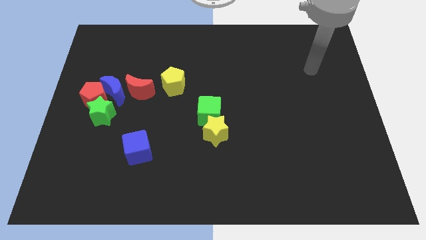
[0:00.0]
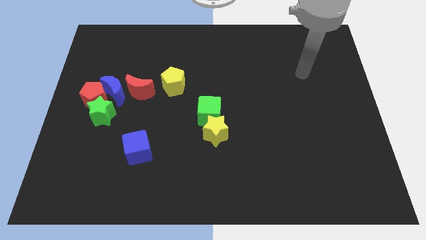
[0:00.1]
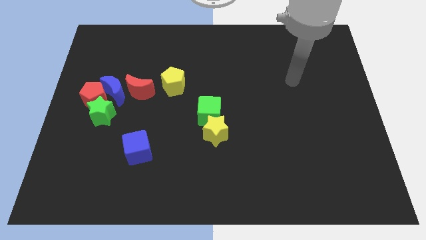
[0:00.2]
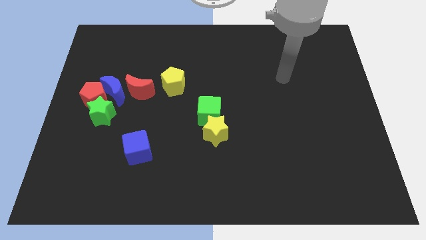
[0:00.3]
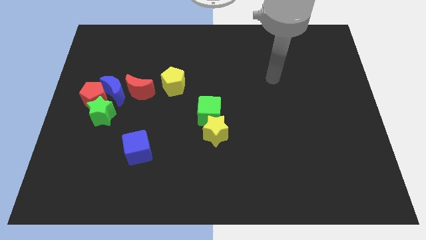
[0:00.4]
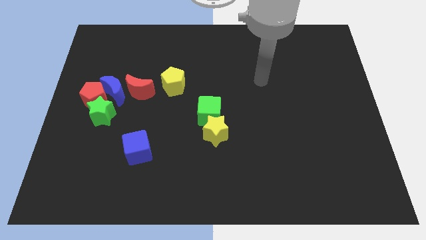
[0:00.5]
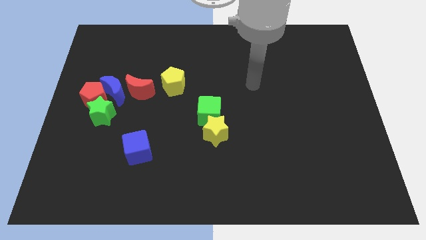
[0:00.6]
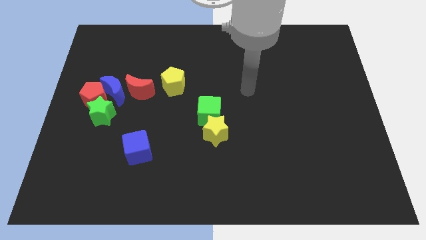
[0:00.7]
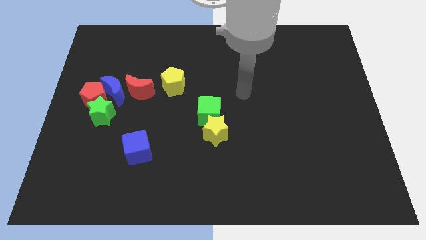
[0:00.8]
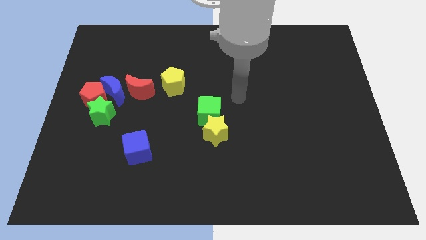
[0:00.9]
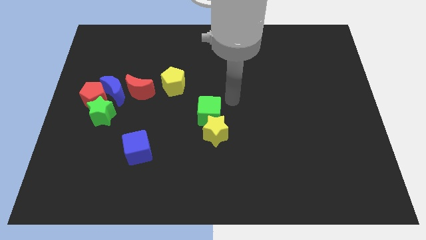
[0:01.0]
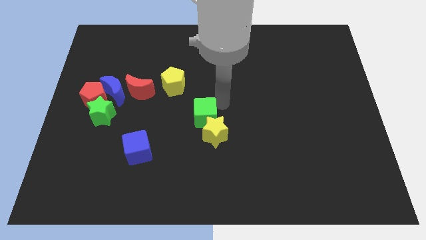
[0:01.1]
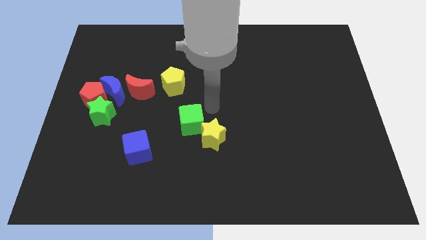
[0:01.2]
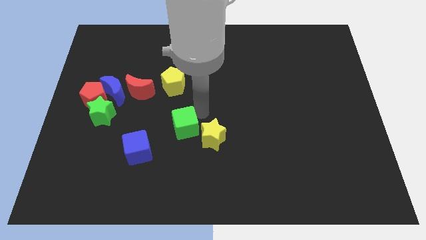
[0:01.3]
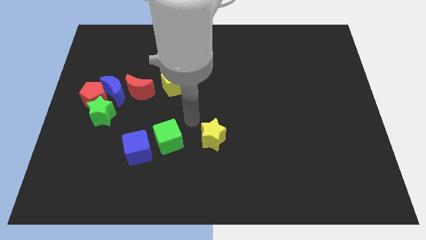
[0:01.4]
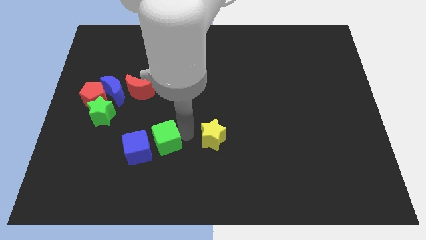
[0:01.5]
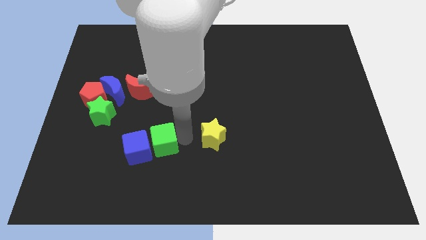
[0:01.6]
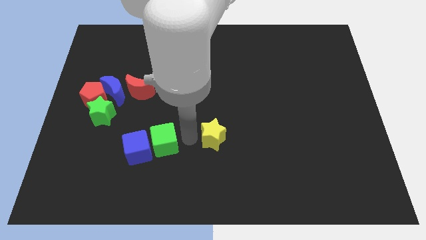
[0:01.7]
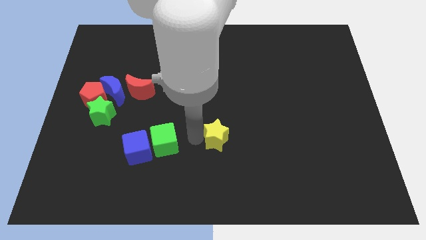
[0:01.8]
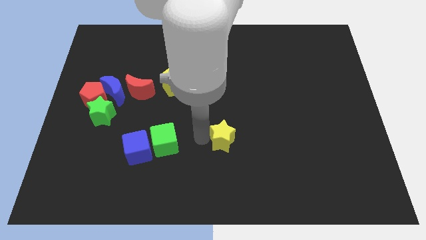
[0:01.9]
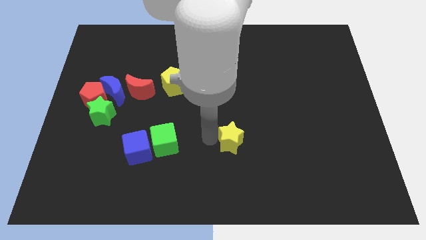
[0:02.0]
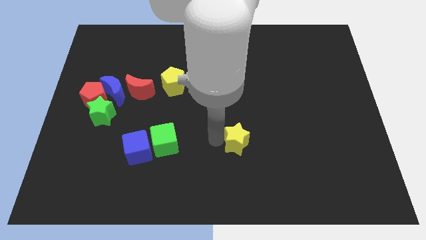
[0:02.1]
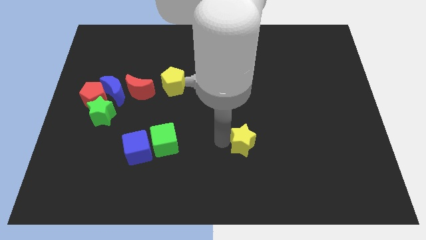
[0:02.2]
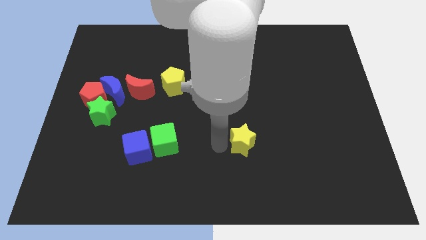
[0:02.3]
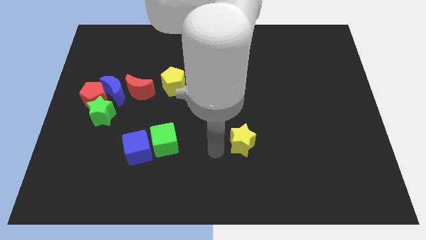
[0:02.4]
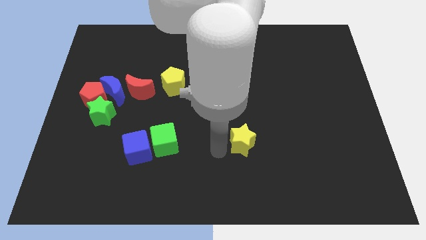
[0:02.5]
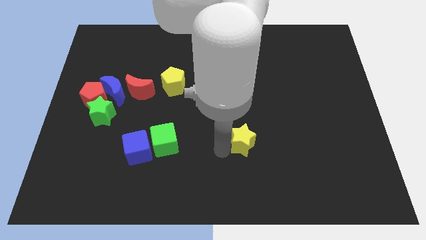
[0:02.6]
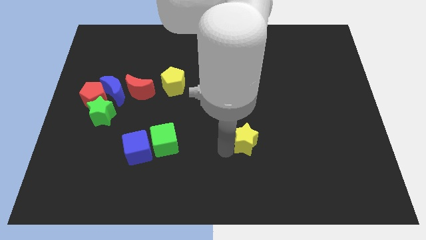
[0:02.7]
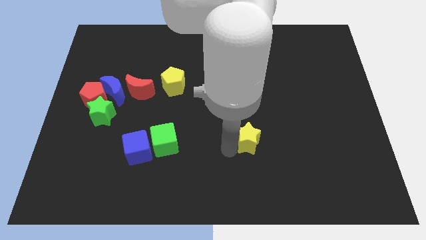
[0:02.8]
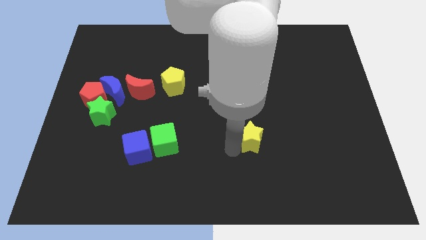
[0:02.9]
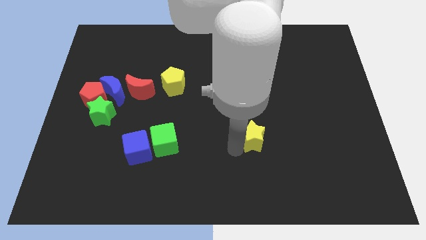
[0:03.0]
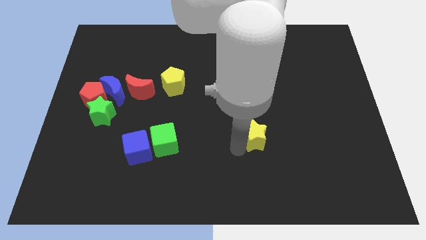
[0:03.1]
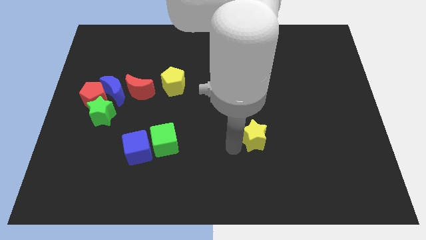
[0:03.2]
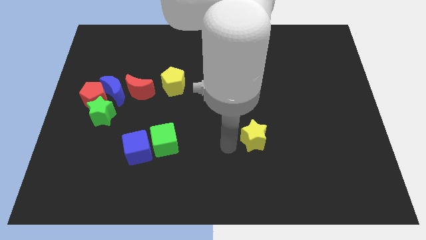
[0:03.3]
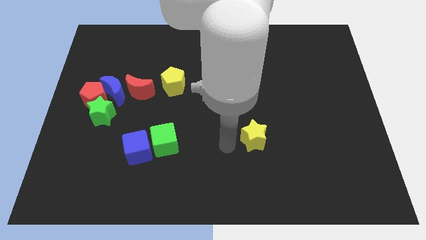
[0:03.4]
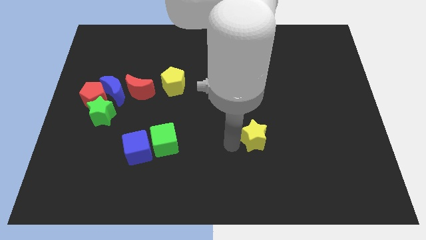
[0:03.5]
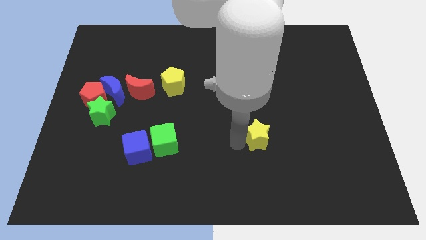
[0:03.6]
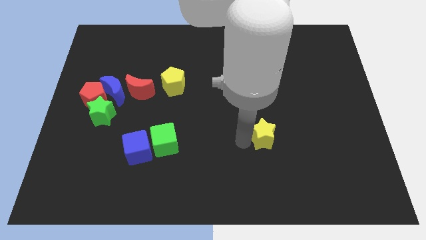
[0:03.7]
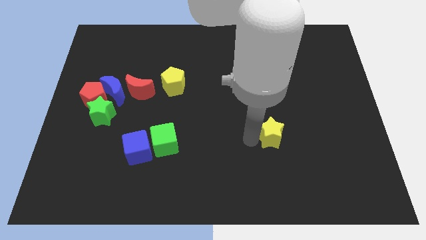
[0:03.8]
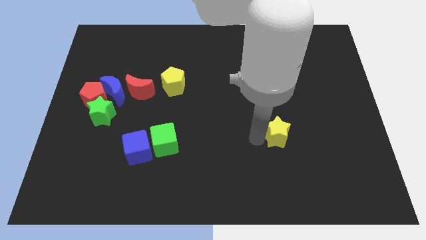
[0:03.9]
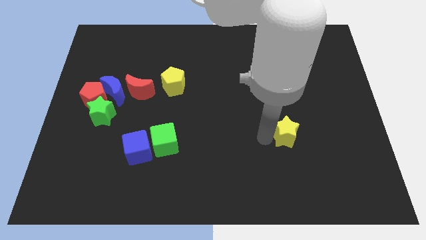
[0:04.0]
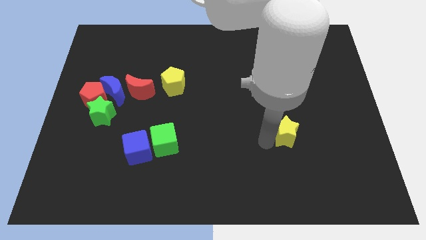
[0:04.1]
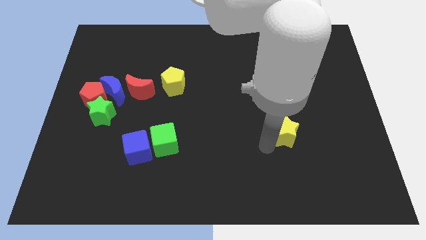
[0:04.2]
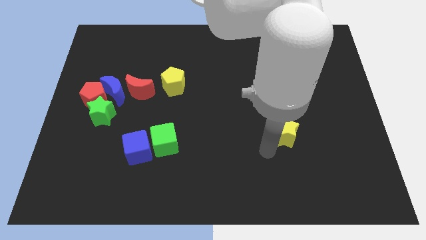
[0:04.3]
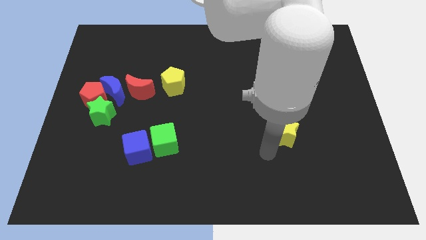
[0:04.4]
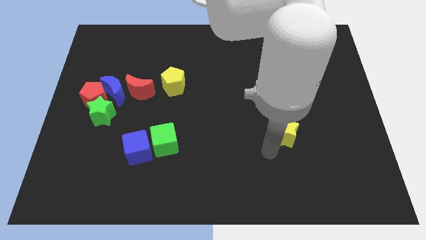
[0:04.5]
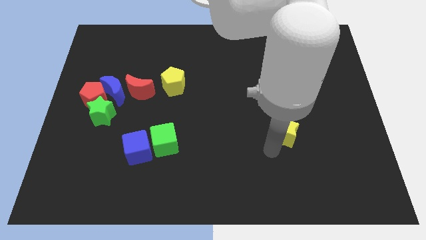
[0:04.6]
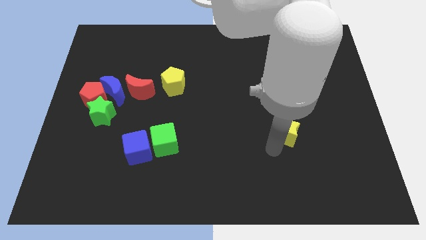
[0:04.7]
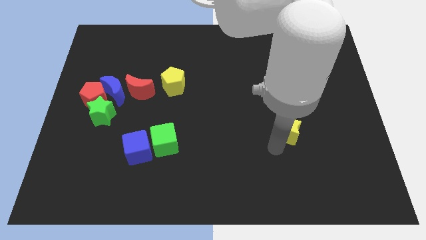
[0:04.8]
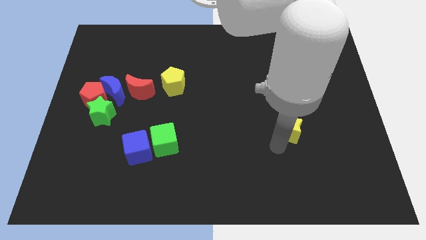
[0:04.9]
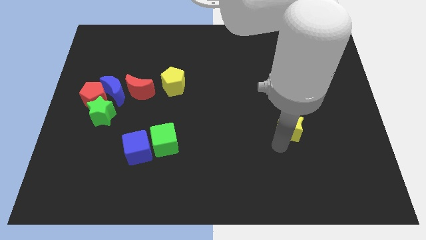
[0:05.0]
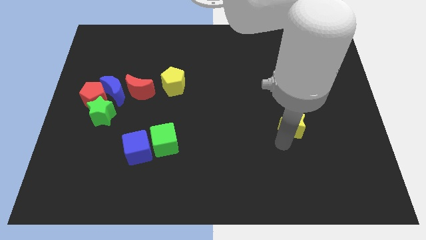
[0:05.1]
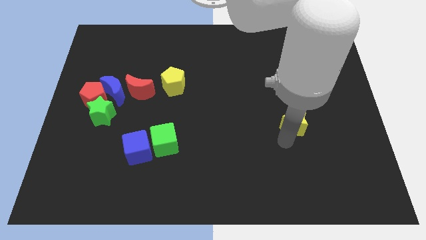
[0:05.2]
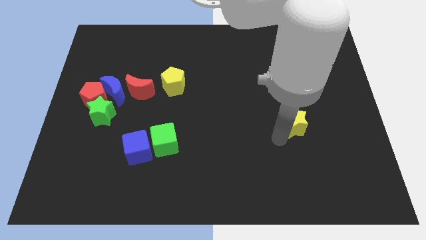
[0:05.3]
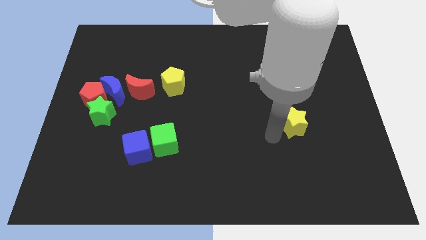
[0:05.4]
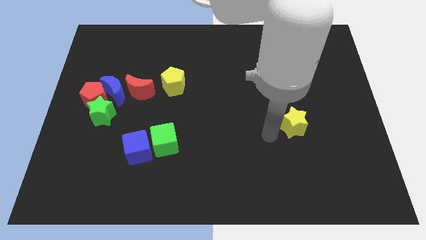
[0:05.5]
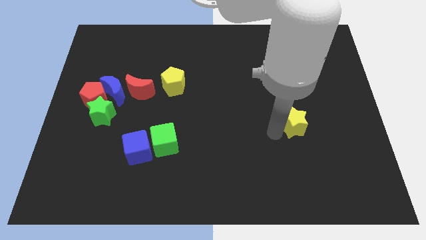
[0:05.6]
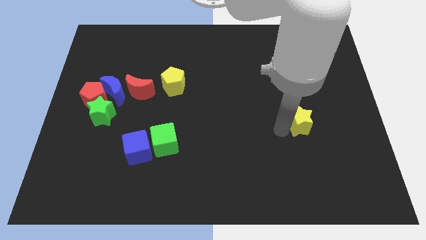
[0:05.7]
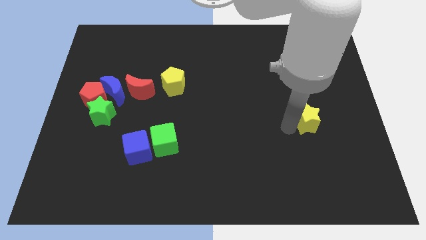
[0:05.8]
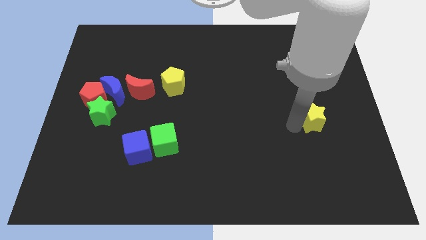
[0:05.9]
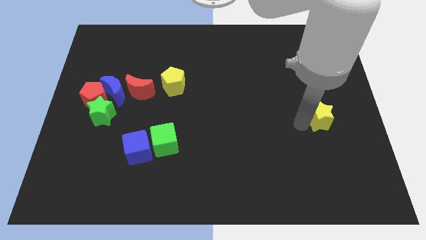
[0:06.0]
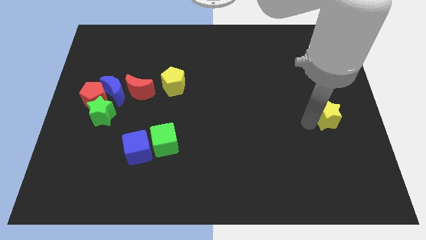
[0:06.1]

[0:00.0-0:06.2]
move the yellow star to the right side

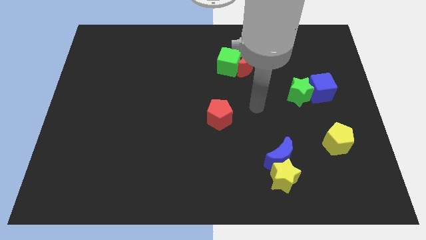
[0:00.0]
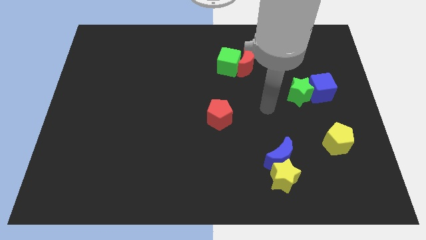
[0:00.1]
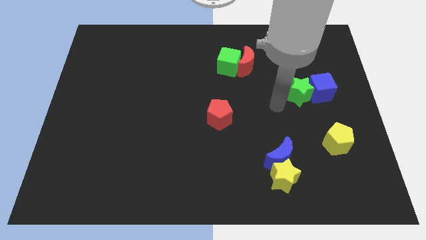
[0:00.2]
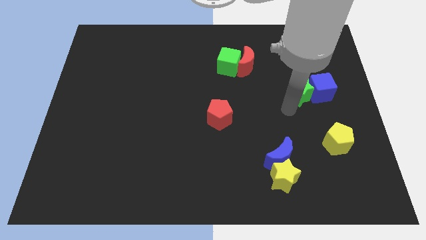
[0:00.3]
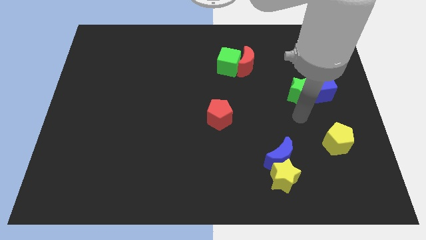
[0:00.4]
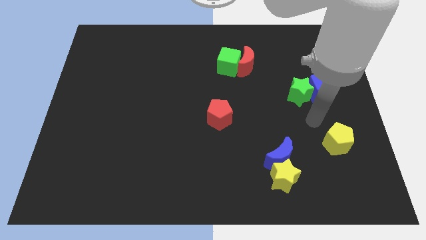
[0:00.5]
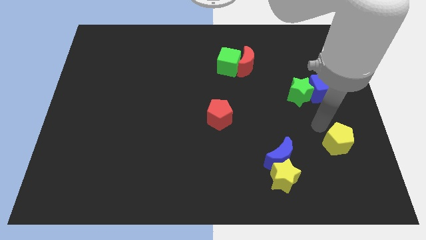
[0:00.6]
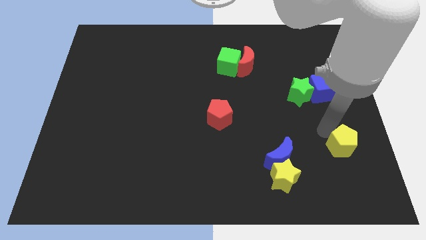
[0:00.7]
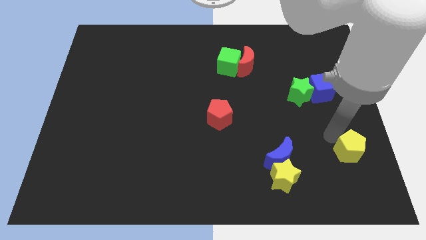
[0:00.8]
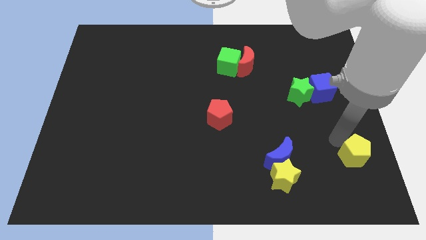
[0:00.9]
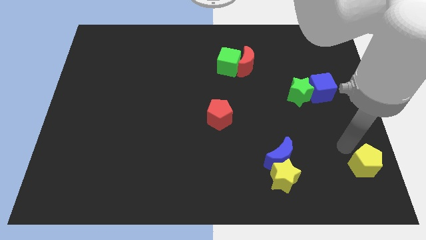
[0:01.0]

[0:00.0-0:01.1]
slide the yellow pentagon to the lower right corner
